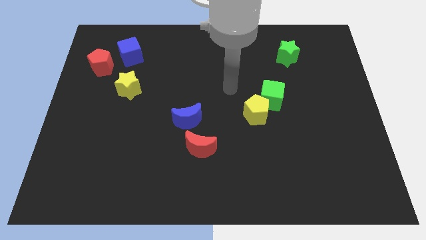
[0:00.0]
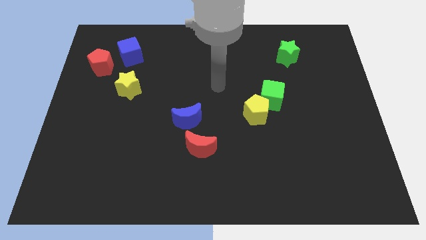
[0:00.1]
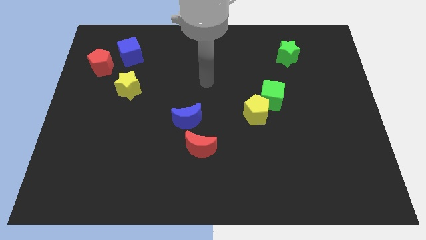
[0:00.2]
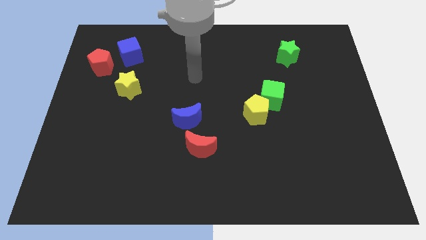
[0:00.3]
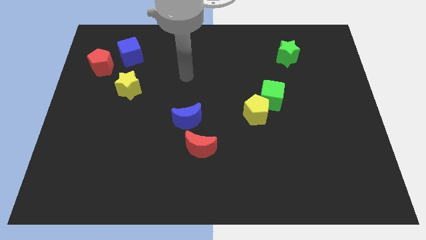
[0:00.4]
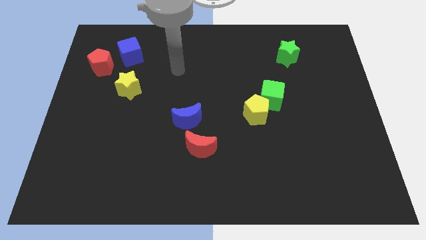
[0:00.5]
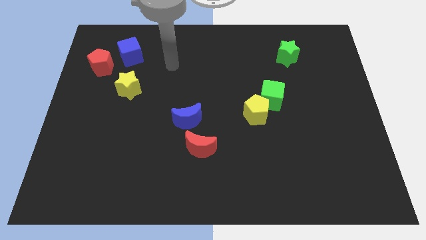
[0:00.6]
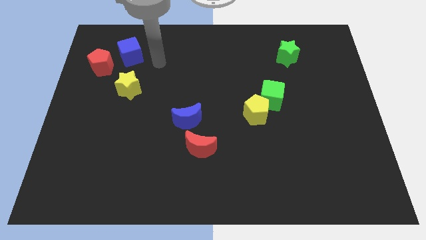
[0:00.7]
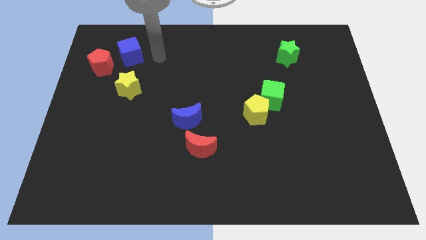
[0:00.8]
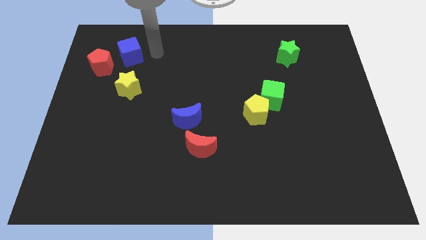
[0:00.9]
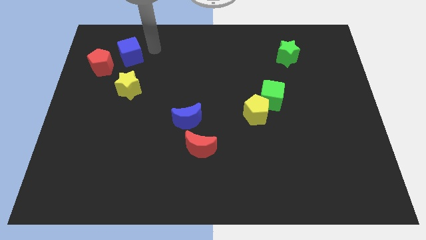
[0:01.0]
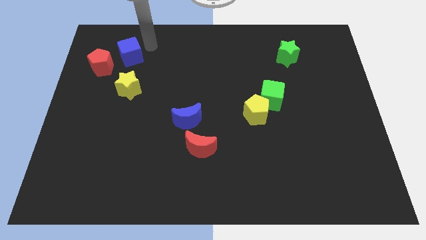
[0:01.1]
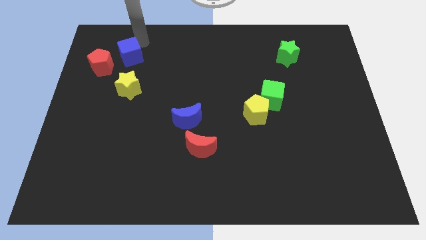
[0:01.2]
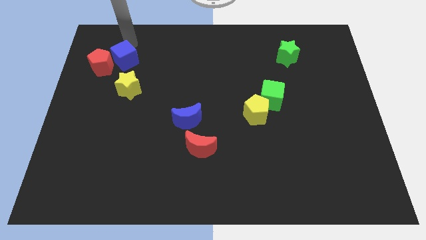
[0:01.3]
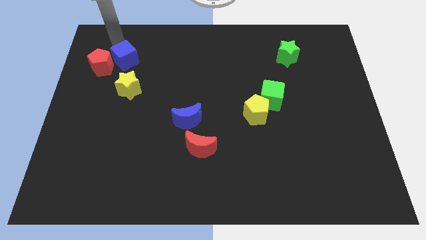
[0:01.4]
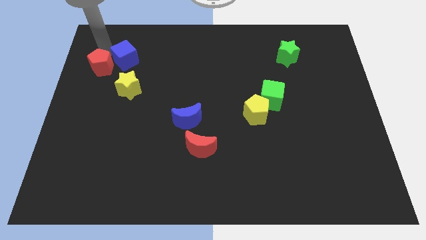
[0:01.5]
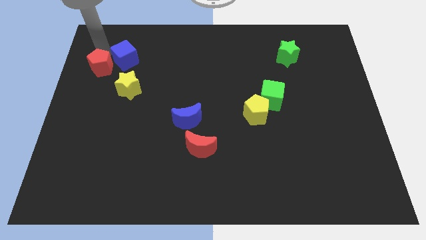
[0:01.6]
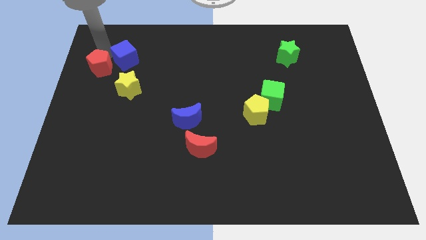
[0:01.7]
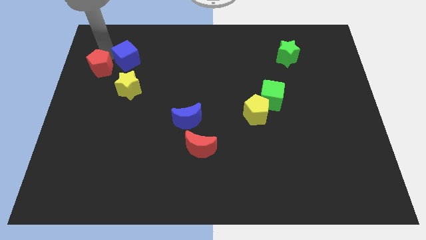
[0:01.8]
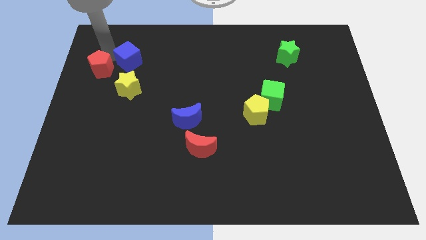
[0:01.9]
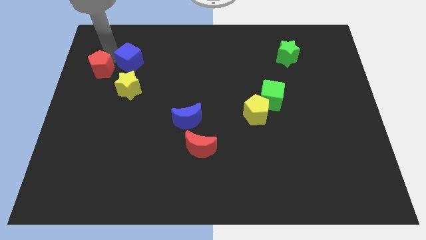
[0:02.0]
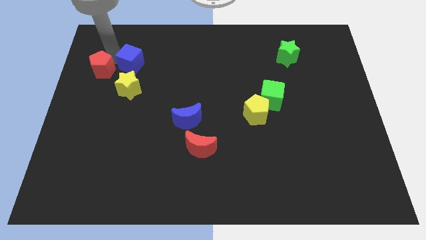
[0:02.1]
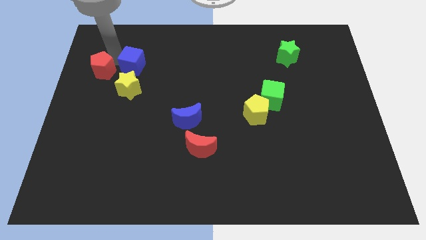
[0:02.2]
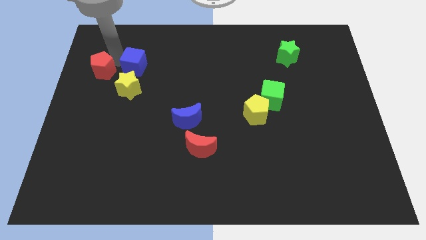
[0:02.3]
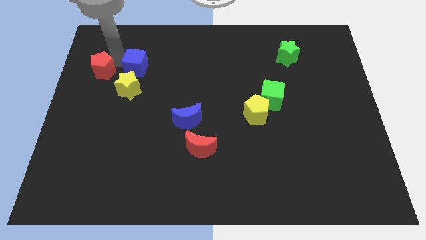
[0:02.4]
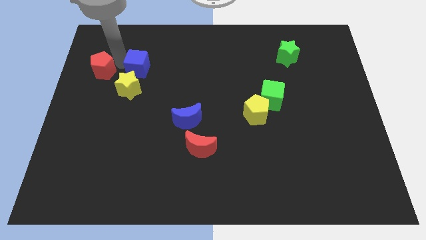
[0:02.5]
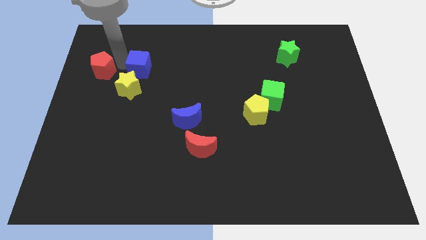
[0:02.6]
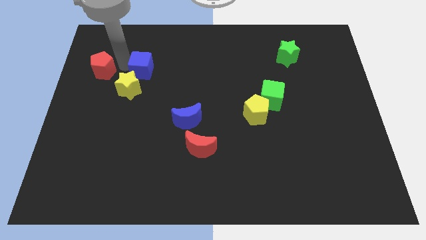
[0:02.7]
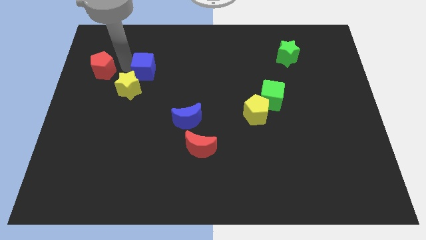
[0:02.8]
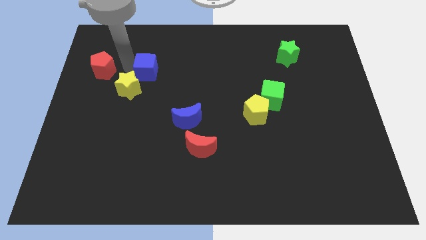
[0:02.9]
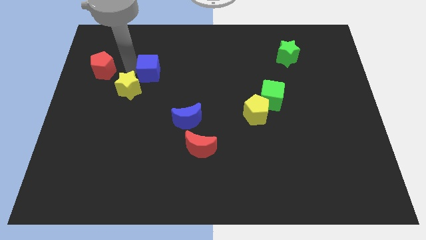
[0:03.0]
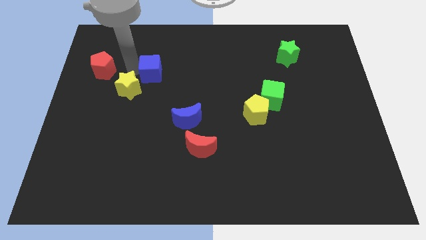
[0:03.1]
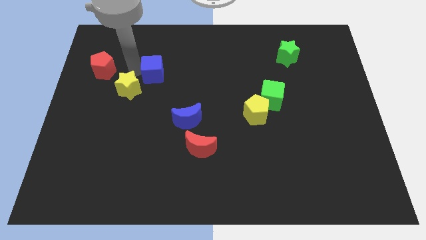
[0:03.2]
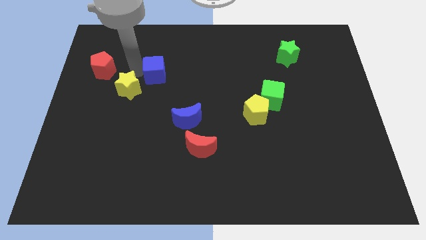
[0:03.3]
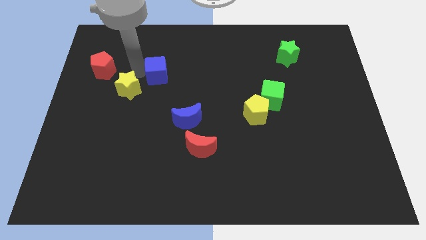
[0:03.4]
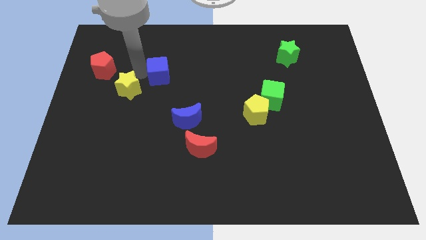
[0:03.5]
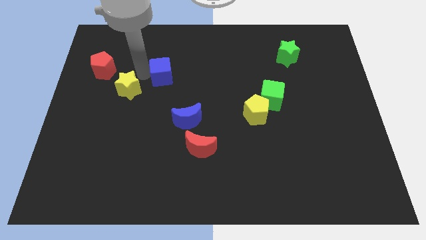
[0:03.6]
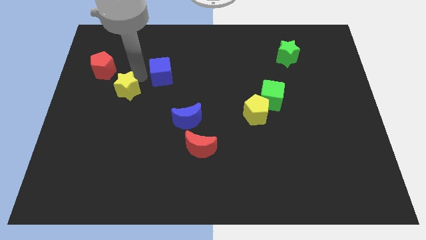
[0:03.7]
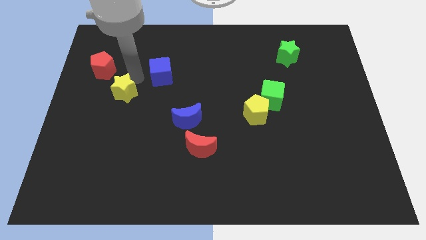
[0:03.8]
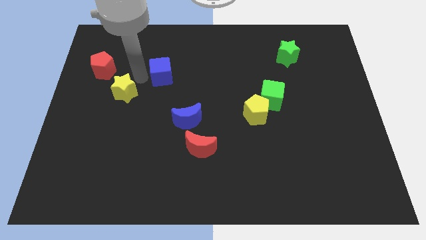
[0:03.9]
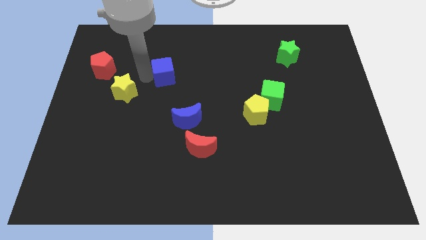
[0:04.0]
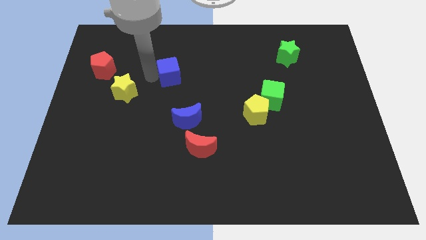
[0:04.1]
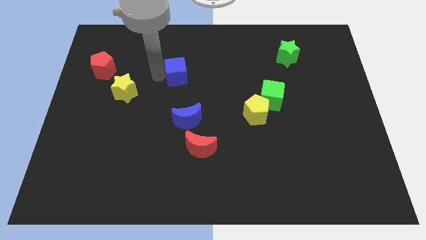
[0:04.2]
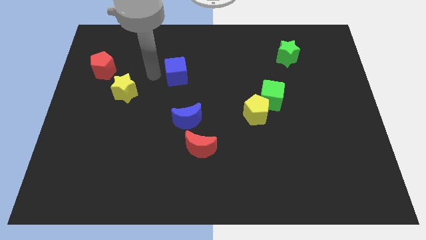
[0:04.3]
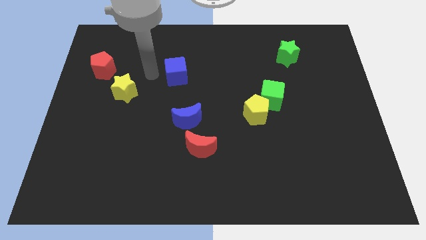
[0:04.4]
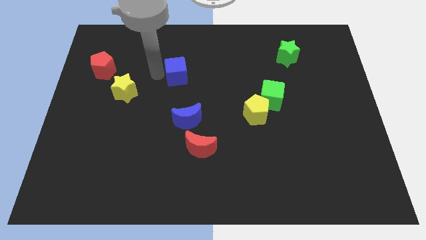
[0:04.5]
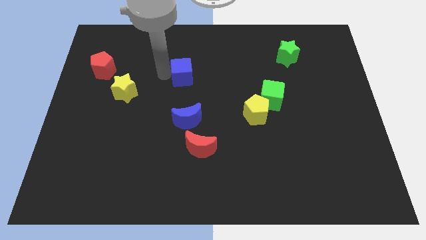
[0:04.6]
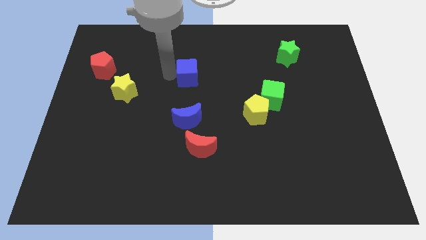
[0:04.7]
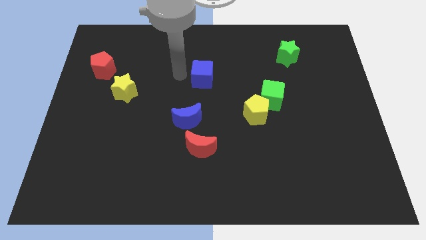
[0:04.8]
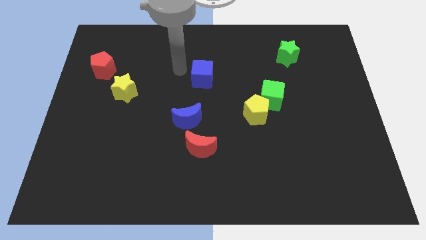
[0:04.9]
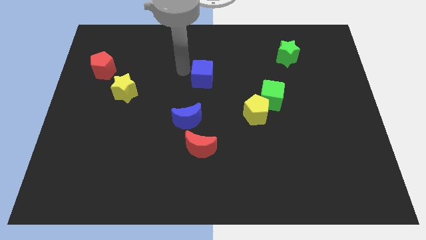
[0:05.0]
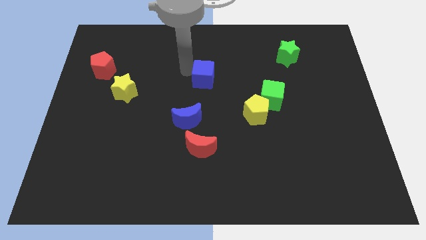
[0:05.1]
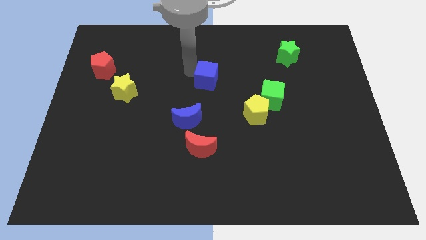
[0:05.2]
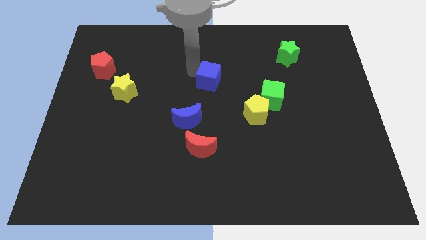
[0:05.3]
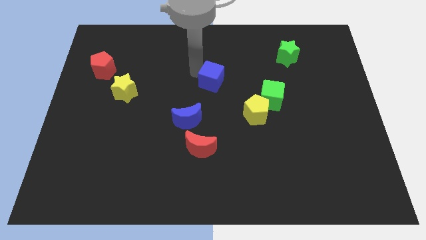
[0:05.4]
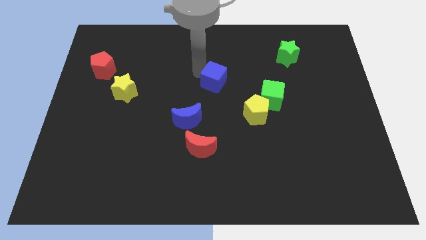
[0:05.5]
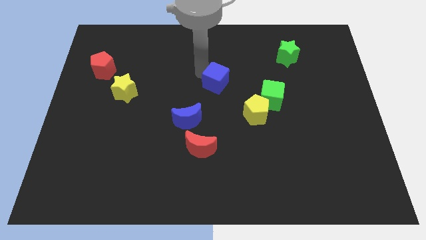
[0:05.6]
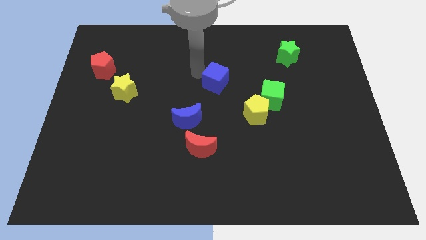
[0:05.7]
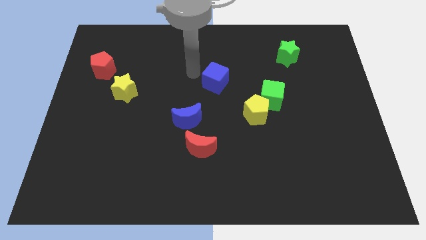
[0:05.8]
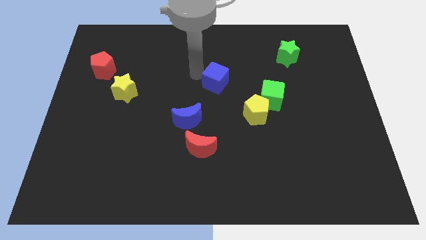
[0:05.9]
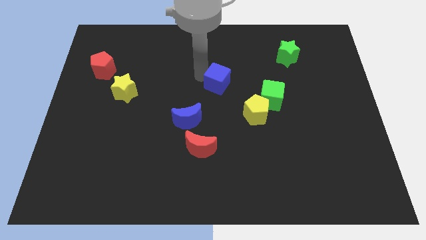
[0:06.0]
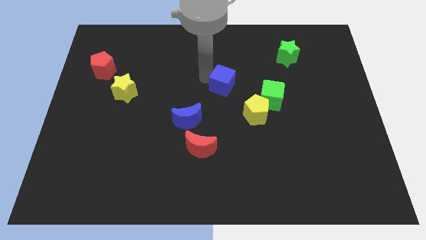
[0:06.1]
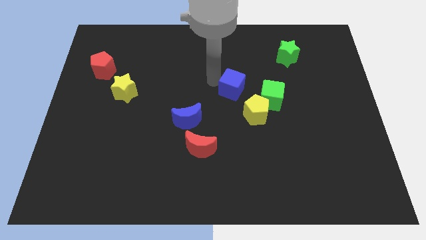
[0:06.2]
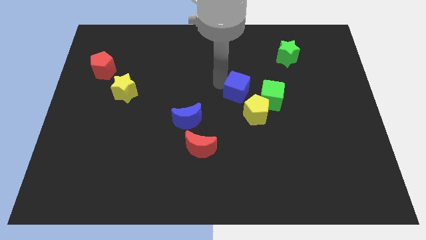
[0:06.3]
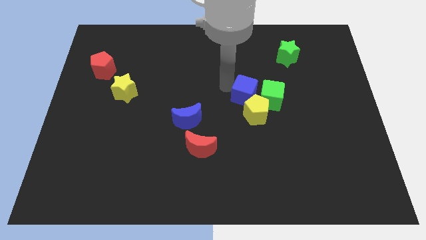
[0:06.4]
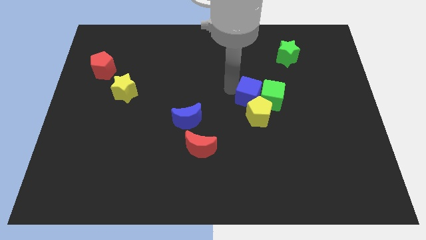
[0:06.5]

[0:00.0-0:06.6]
move the blue cube towards the green cube

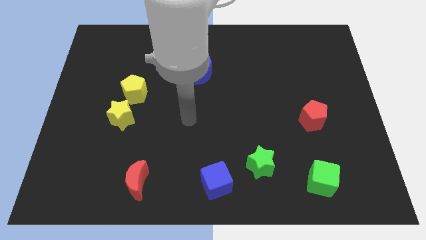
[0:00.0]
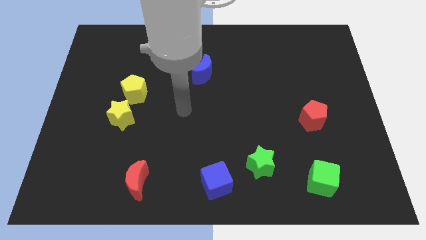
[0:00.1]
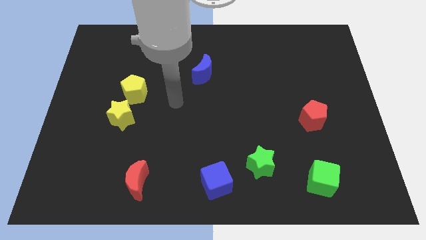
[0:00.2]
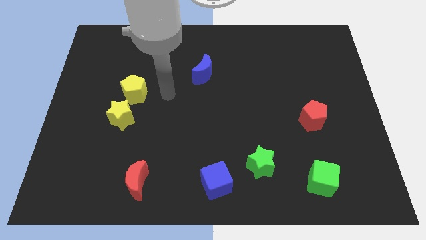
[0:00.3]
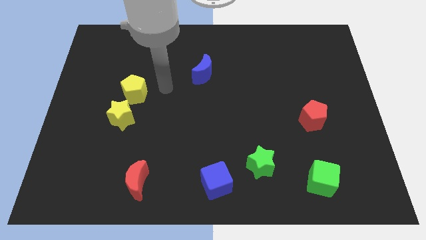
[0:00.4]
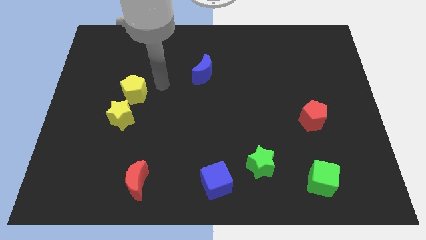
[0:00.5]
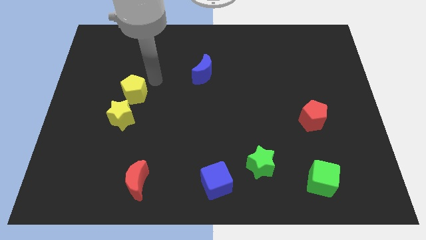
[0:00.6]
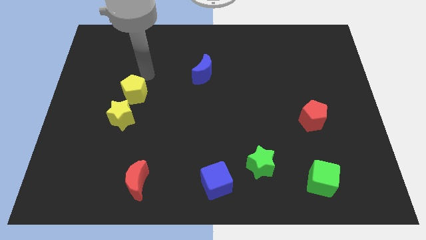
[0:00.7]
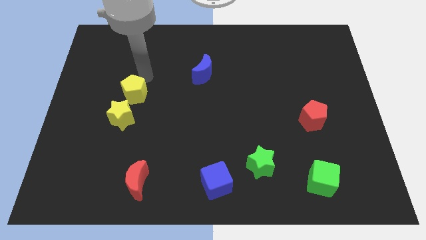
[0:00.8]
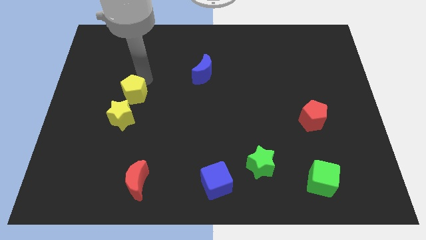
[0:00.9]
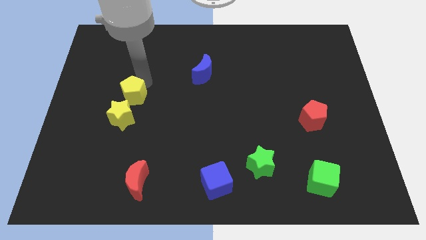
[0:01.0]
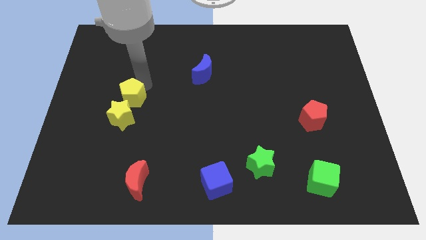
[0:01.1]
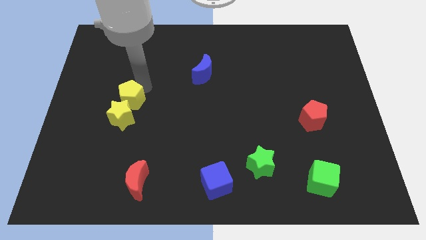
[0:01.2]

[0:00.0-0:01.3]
move the yellow pentagon close to the yellow star
